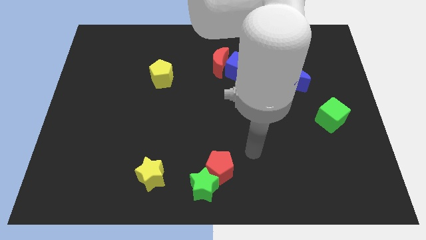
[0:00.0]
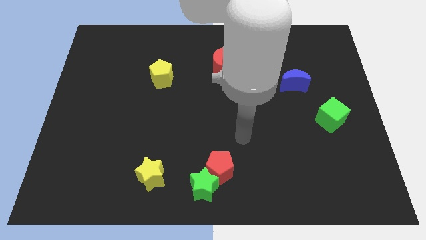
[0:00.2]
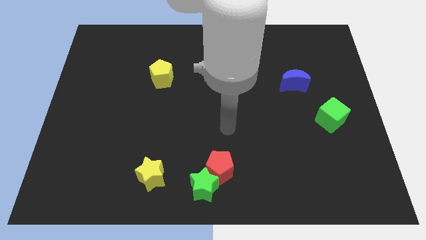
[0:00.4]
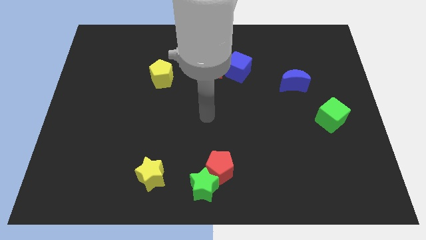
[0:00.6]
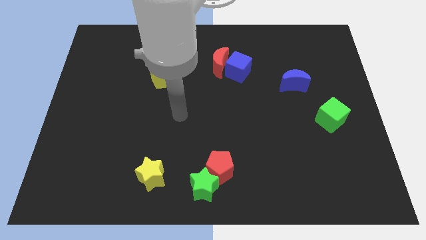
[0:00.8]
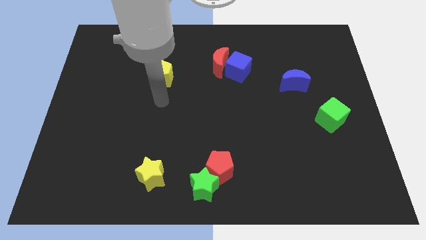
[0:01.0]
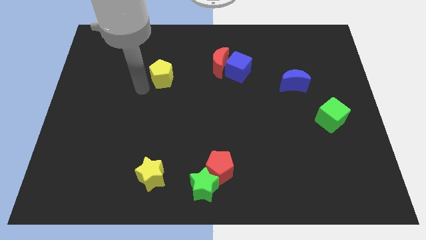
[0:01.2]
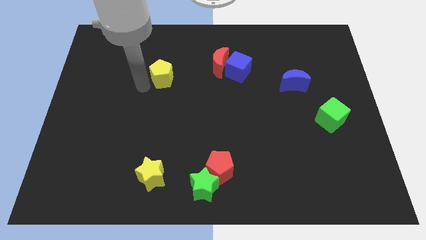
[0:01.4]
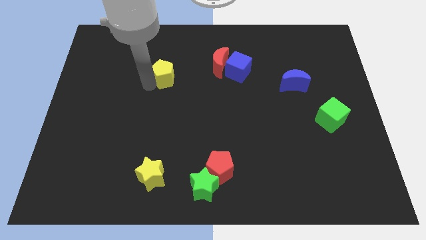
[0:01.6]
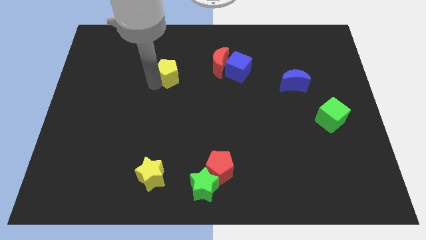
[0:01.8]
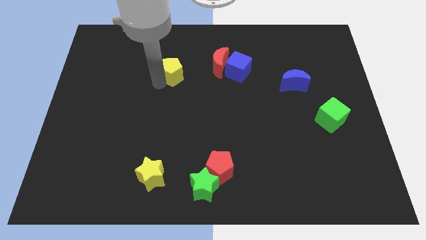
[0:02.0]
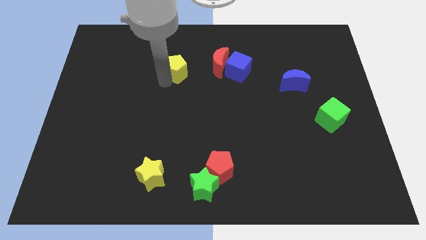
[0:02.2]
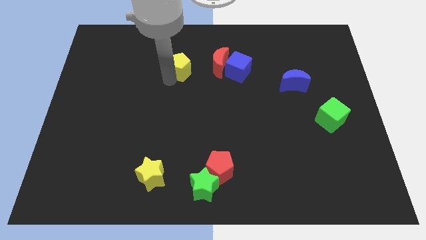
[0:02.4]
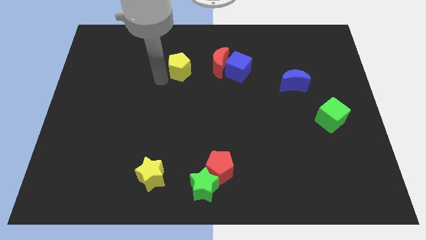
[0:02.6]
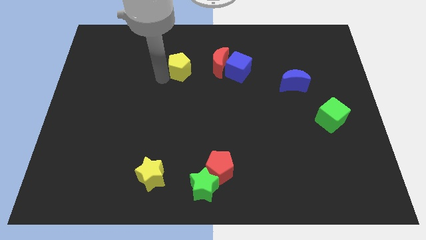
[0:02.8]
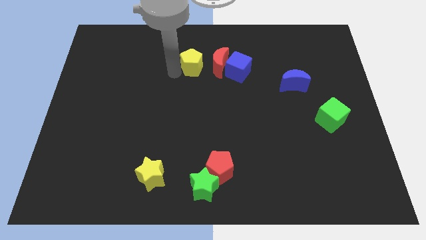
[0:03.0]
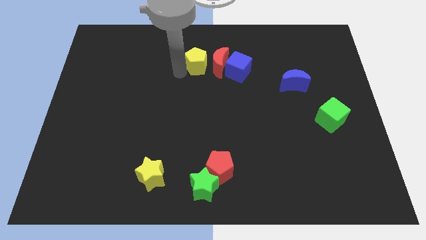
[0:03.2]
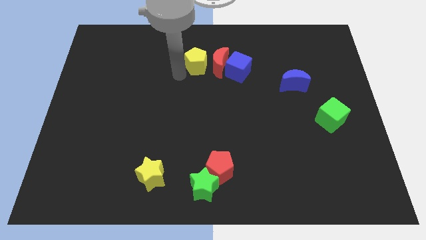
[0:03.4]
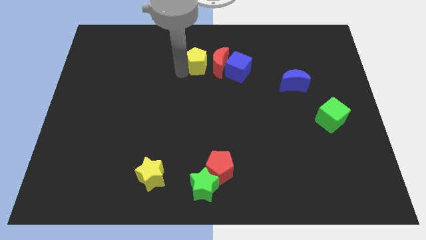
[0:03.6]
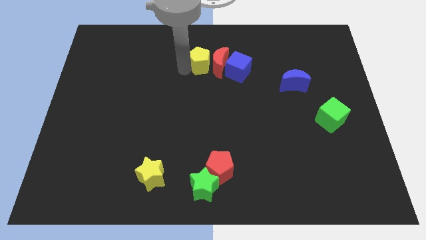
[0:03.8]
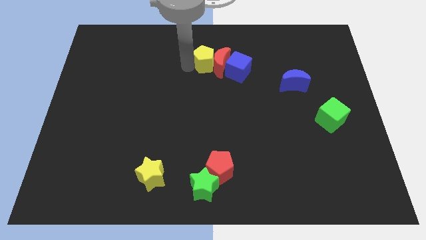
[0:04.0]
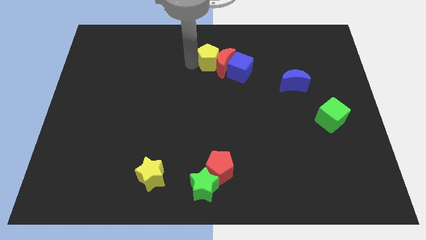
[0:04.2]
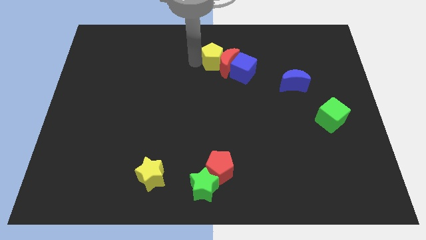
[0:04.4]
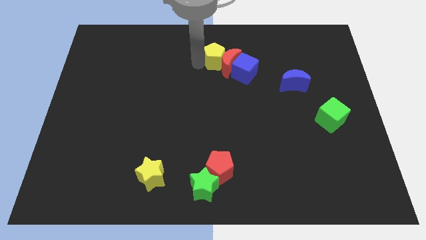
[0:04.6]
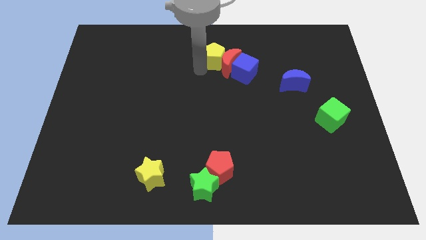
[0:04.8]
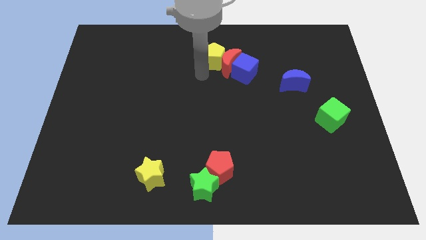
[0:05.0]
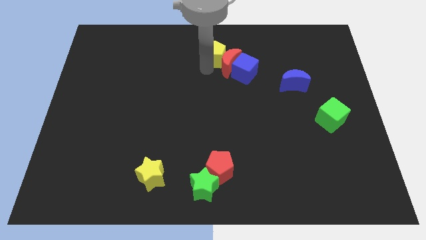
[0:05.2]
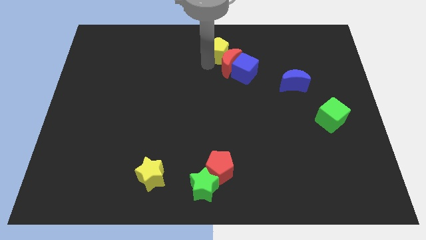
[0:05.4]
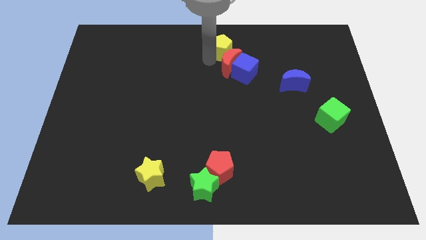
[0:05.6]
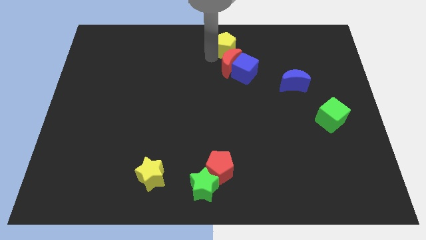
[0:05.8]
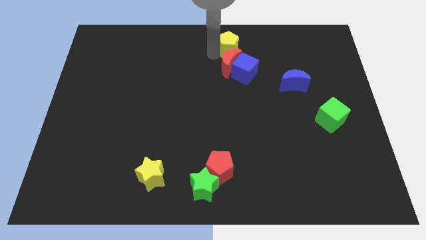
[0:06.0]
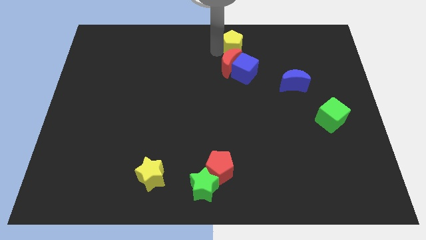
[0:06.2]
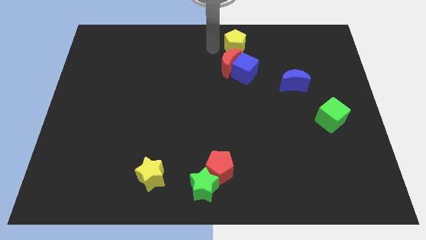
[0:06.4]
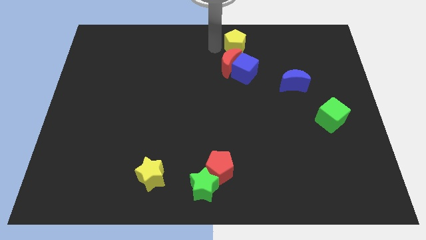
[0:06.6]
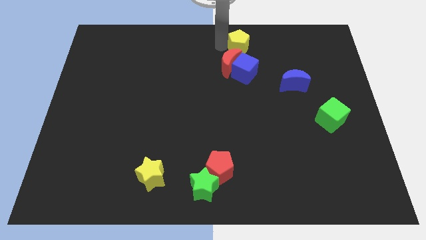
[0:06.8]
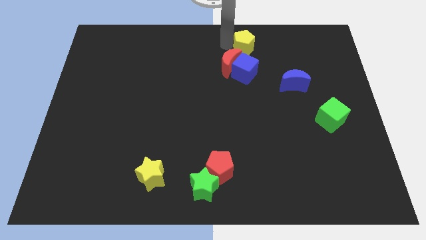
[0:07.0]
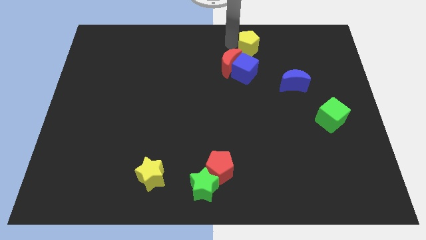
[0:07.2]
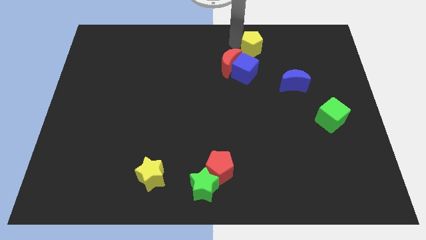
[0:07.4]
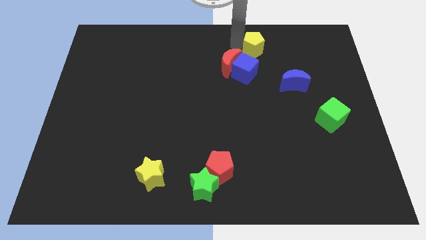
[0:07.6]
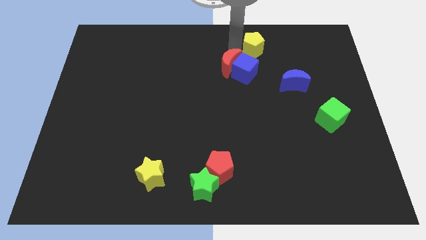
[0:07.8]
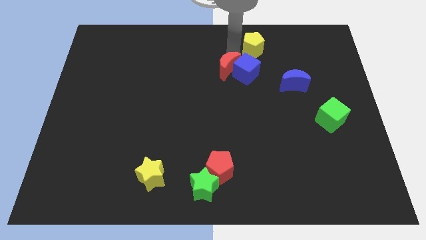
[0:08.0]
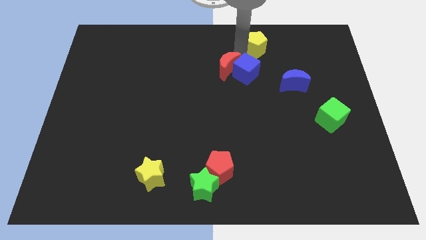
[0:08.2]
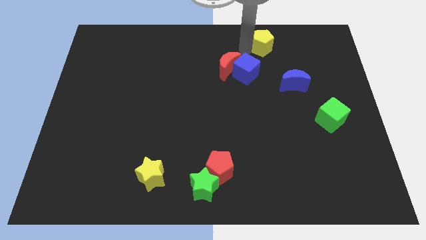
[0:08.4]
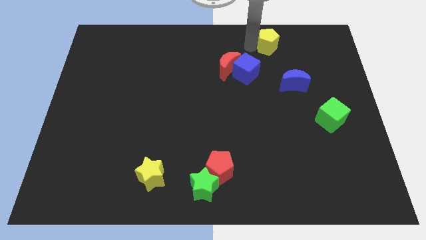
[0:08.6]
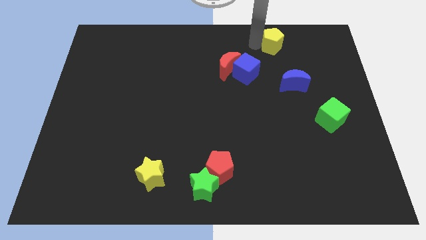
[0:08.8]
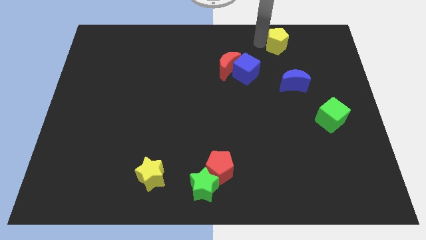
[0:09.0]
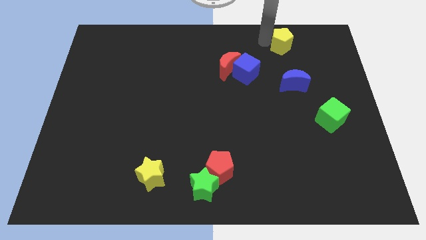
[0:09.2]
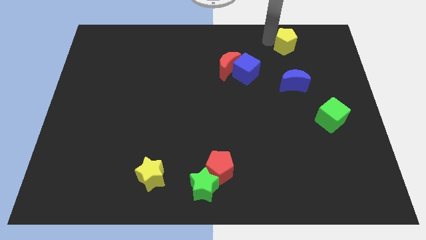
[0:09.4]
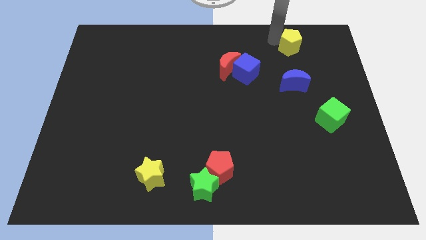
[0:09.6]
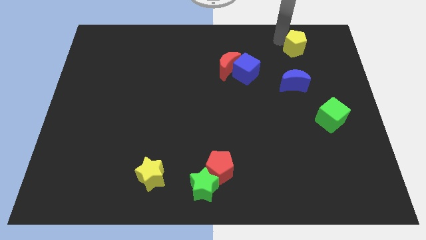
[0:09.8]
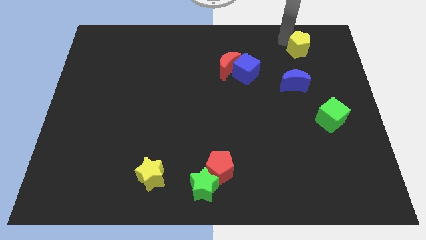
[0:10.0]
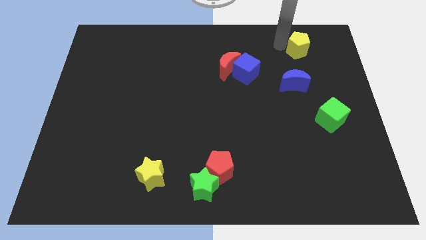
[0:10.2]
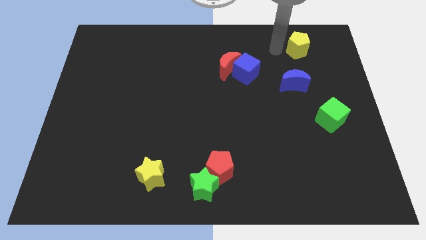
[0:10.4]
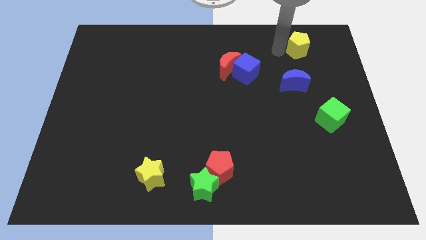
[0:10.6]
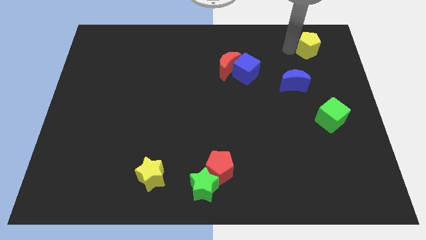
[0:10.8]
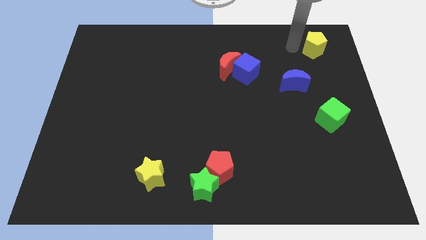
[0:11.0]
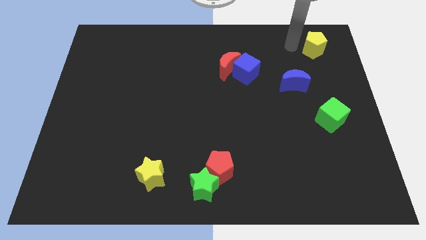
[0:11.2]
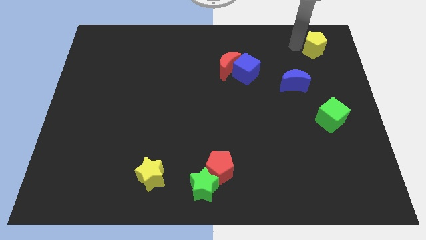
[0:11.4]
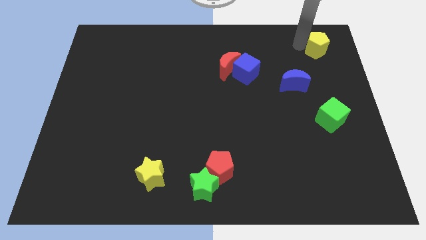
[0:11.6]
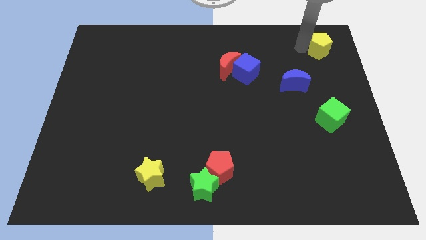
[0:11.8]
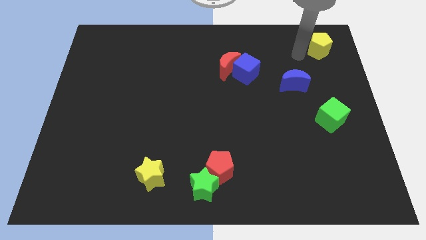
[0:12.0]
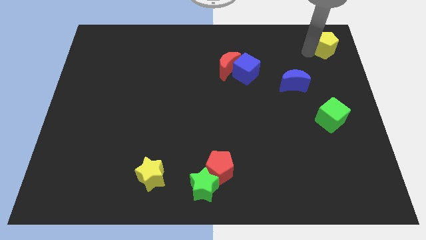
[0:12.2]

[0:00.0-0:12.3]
slide the yellow pentagon to the top right of the board
